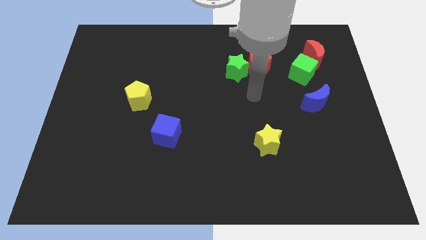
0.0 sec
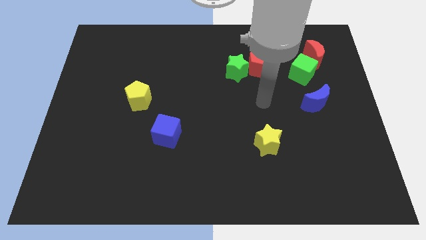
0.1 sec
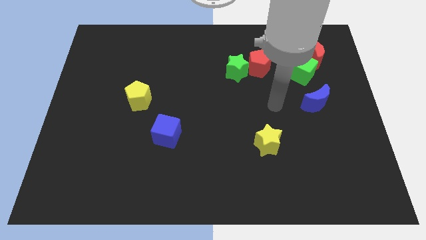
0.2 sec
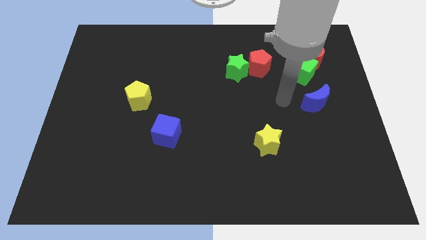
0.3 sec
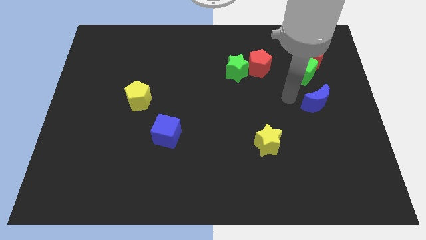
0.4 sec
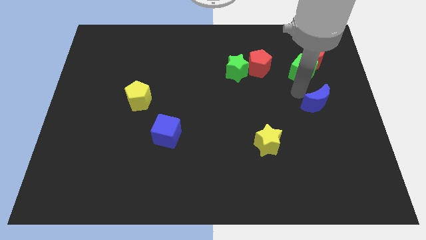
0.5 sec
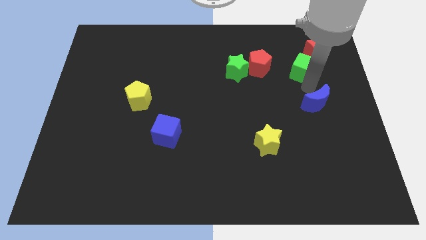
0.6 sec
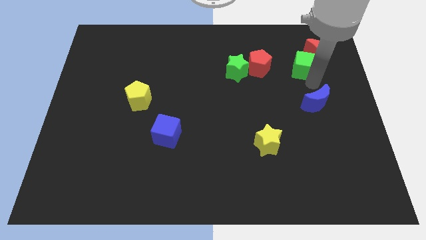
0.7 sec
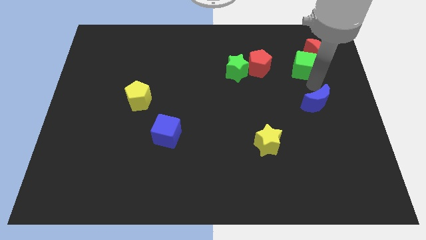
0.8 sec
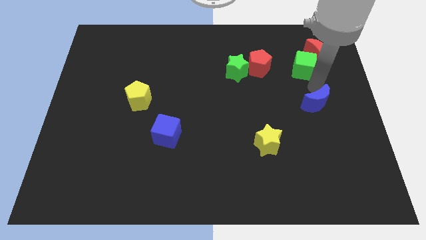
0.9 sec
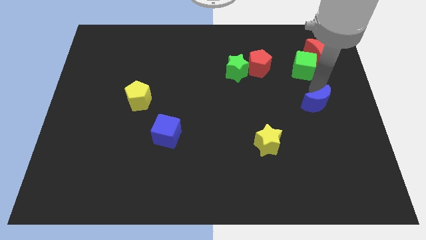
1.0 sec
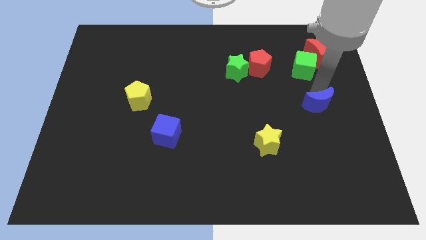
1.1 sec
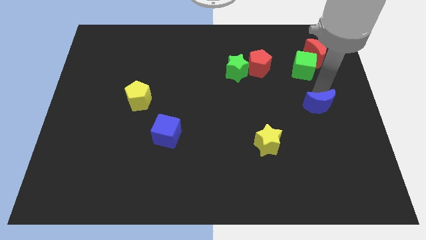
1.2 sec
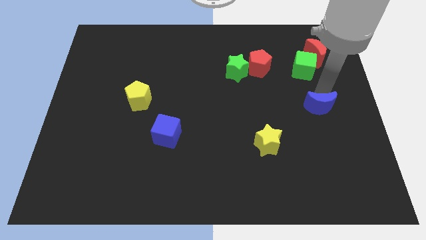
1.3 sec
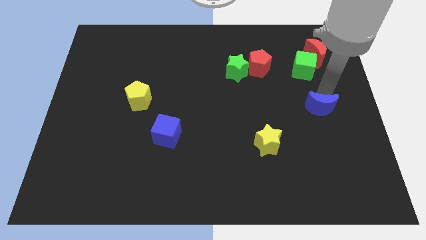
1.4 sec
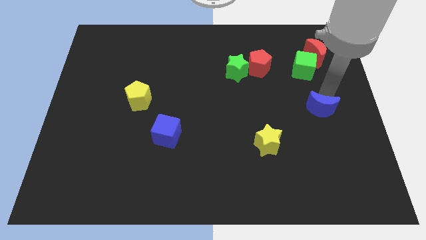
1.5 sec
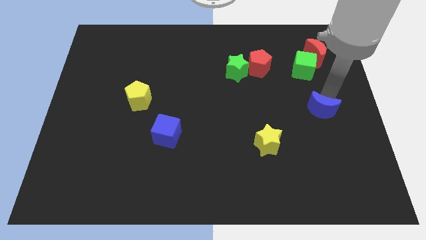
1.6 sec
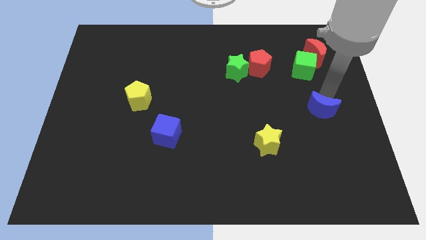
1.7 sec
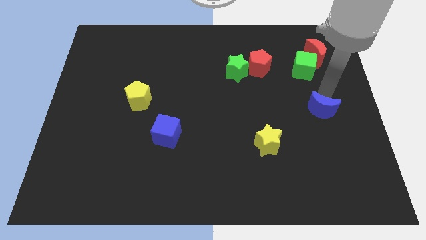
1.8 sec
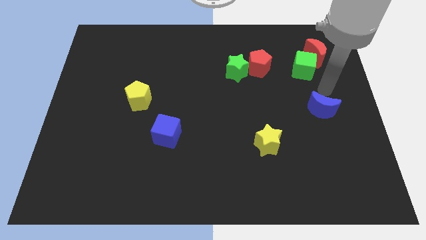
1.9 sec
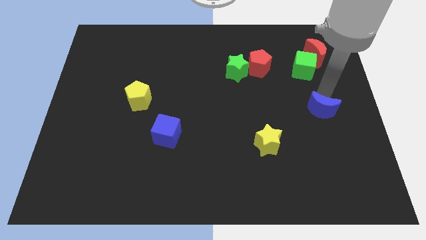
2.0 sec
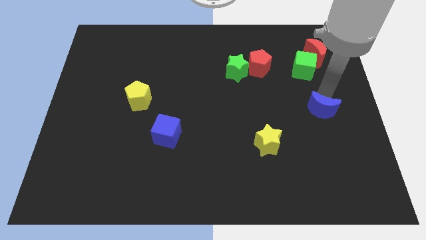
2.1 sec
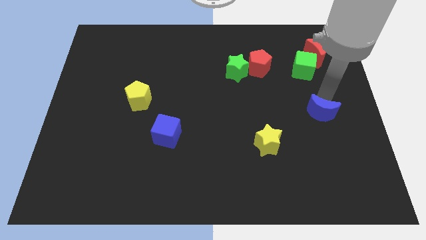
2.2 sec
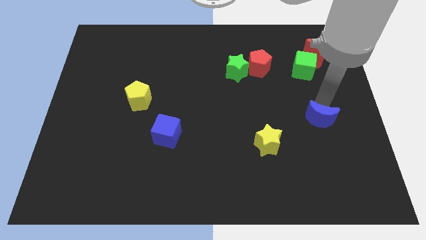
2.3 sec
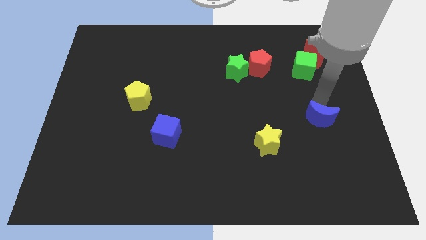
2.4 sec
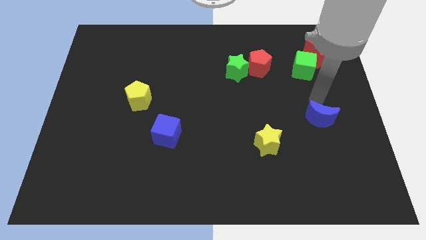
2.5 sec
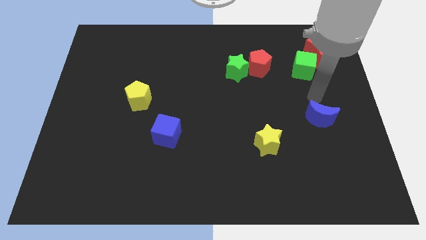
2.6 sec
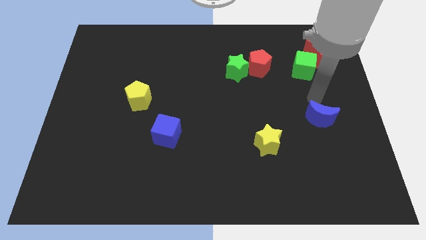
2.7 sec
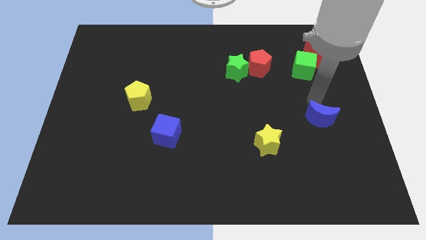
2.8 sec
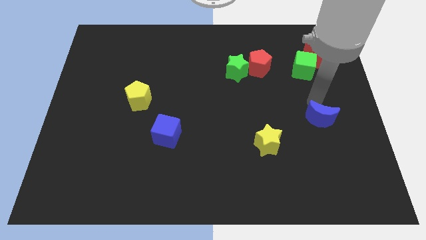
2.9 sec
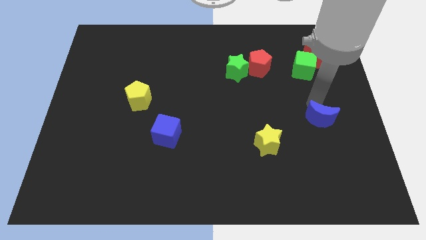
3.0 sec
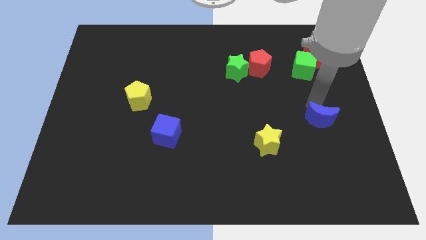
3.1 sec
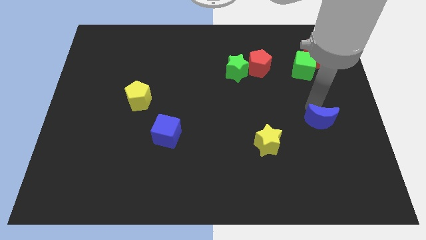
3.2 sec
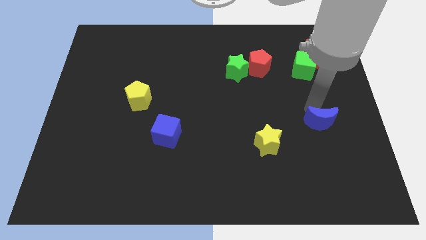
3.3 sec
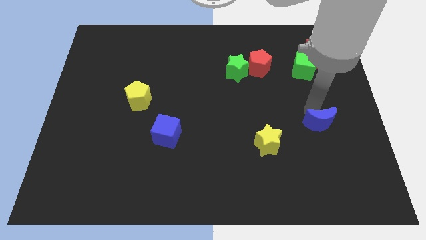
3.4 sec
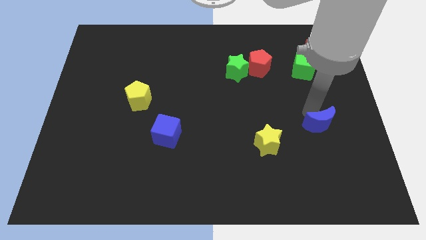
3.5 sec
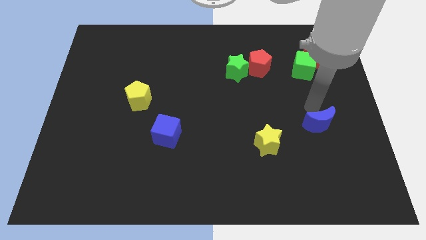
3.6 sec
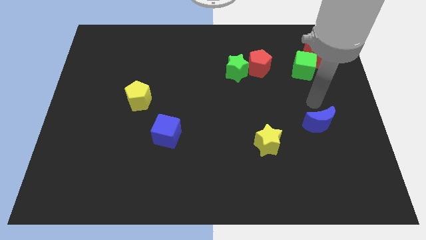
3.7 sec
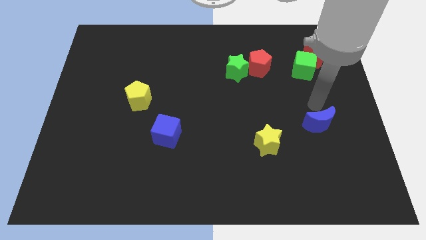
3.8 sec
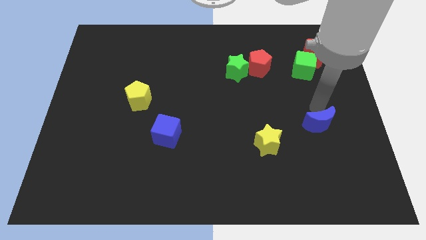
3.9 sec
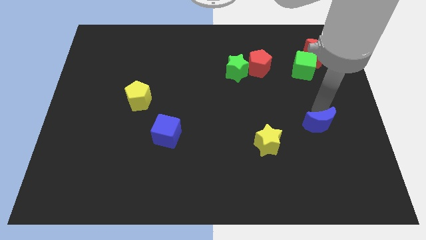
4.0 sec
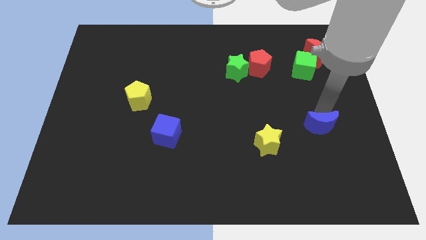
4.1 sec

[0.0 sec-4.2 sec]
slide the blue moon down a bit

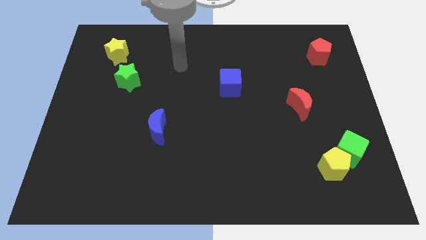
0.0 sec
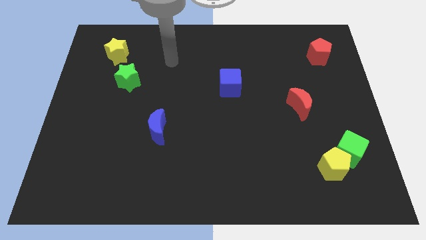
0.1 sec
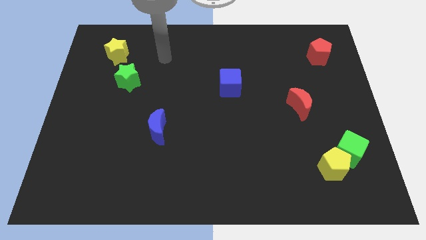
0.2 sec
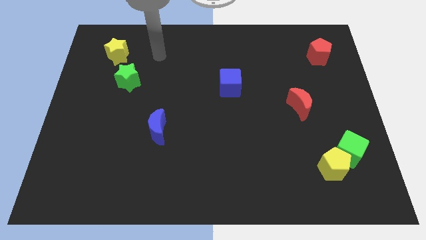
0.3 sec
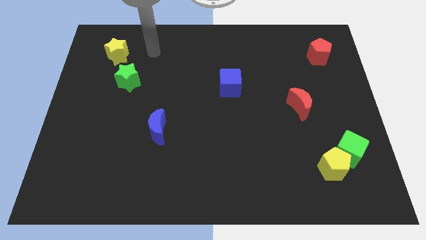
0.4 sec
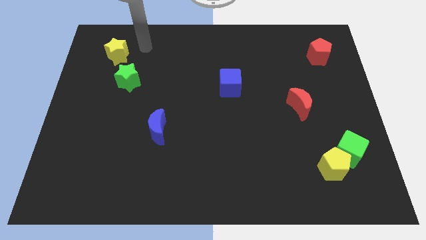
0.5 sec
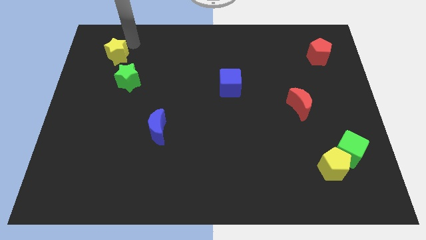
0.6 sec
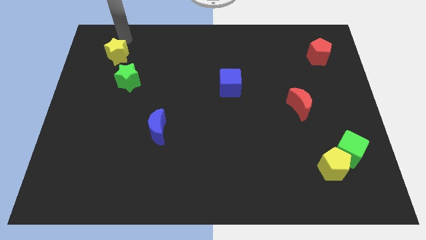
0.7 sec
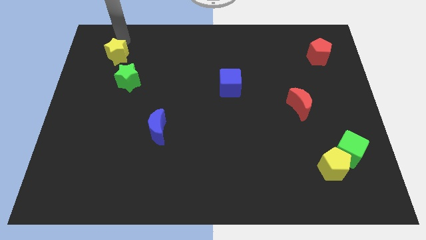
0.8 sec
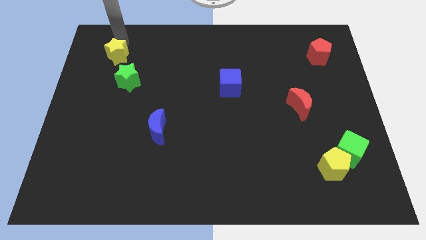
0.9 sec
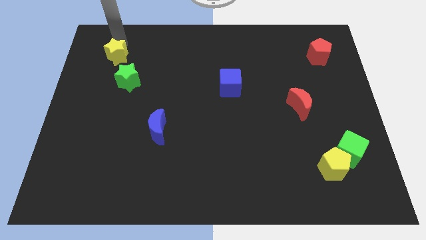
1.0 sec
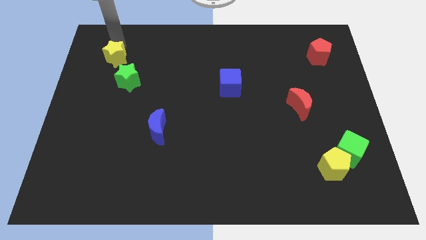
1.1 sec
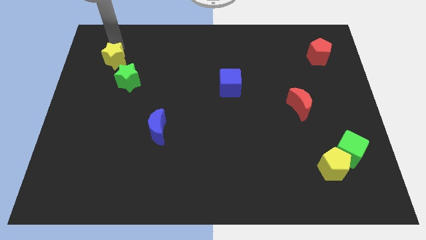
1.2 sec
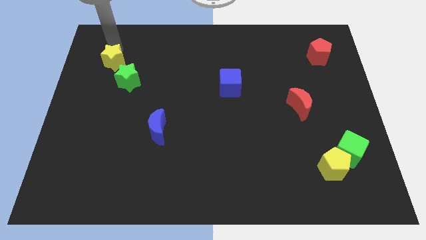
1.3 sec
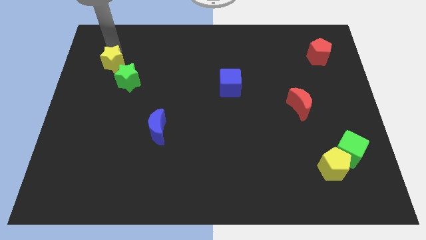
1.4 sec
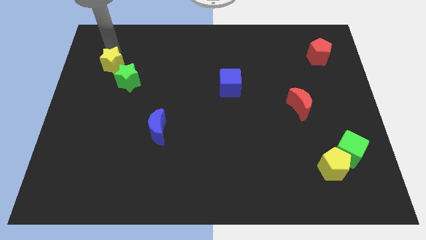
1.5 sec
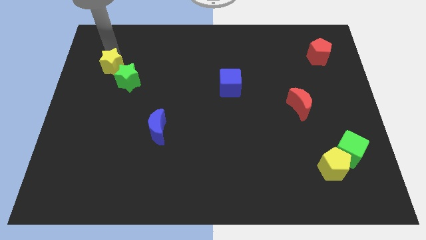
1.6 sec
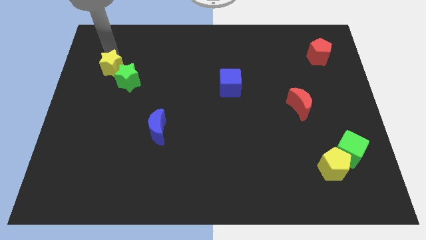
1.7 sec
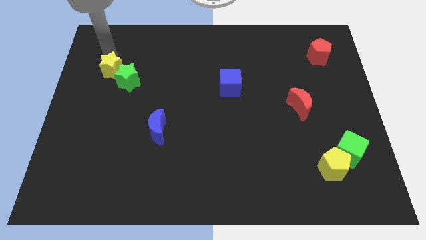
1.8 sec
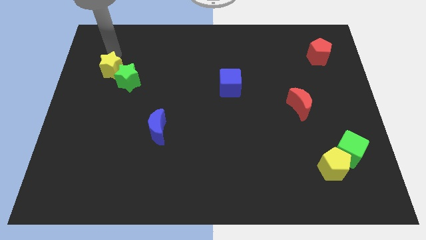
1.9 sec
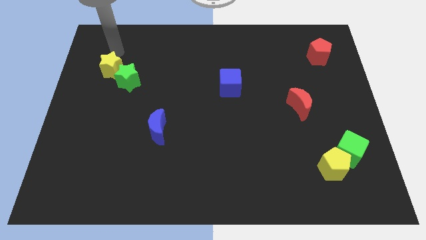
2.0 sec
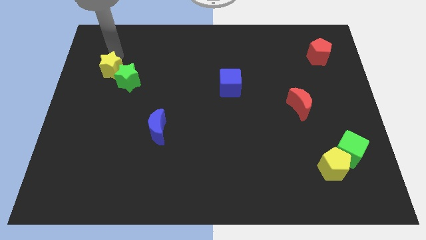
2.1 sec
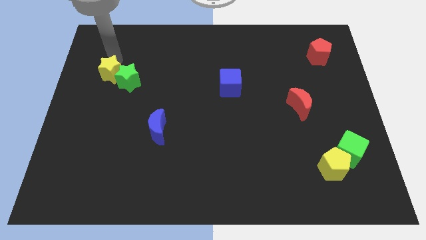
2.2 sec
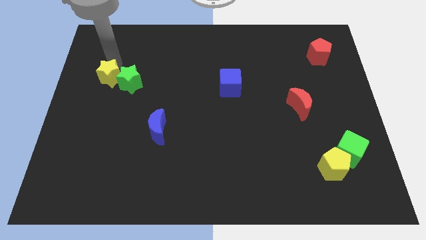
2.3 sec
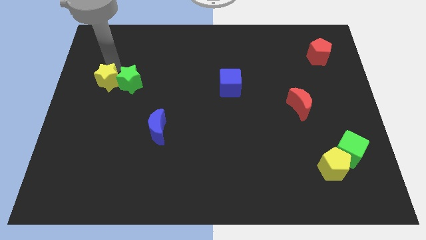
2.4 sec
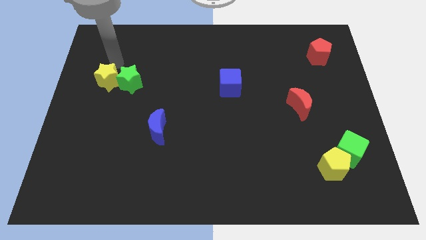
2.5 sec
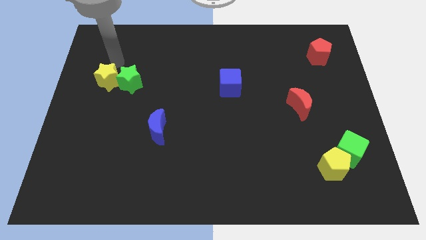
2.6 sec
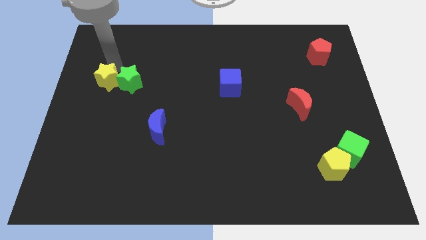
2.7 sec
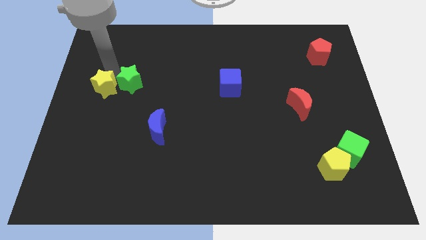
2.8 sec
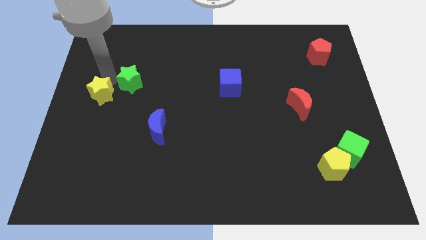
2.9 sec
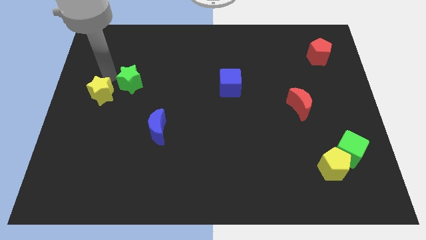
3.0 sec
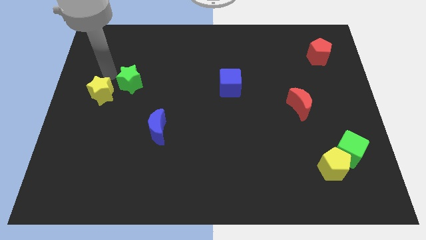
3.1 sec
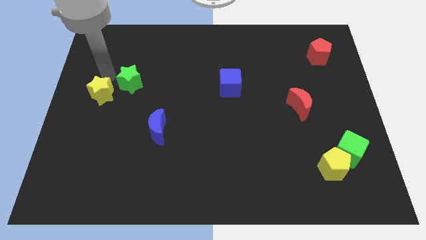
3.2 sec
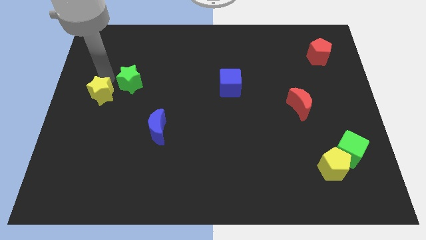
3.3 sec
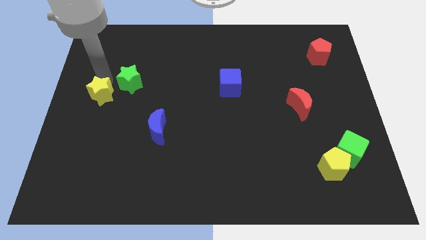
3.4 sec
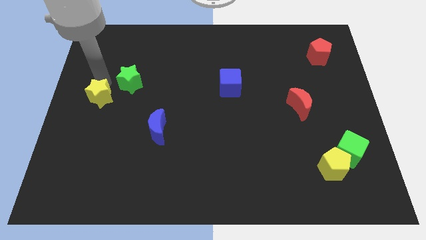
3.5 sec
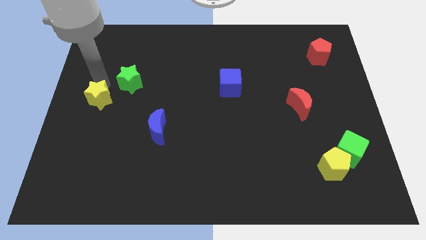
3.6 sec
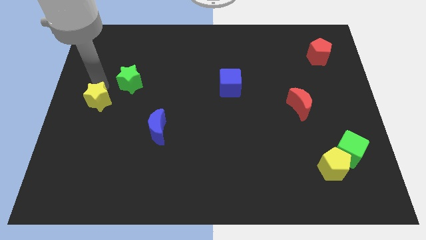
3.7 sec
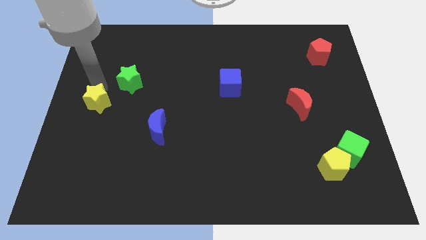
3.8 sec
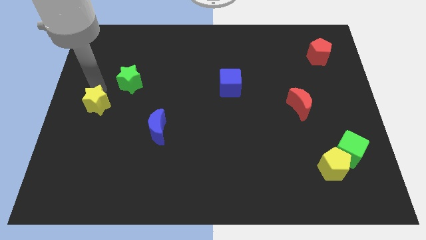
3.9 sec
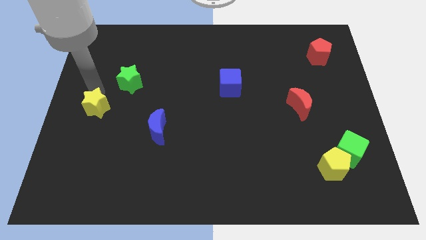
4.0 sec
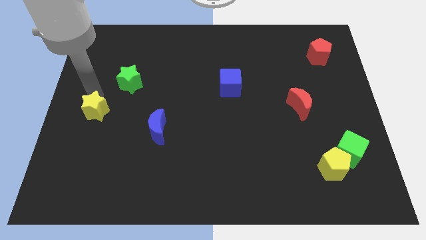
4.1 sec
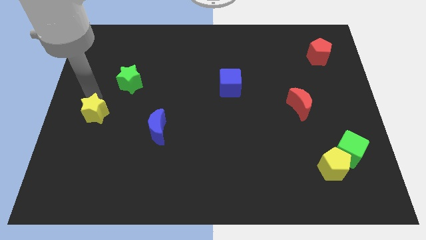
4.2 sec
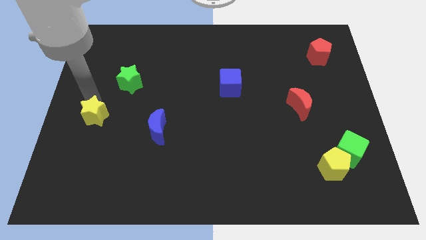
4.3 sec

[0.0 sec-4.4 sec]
push the yellow star downwards
